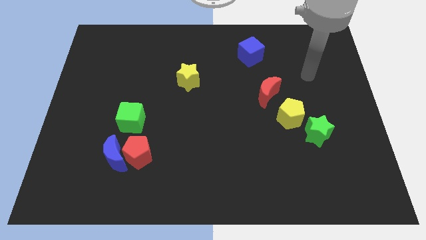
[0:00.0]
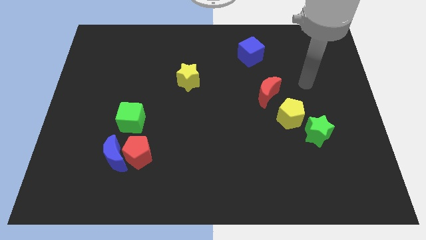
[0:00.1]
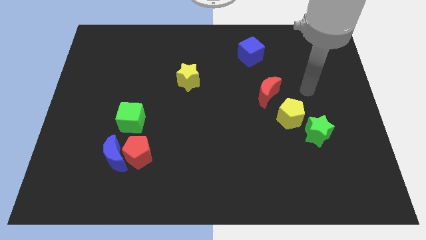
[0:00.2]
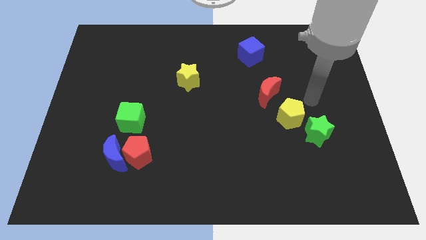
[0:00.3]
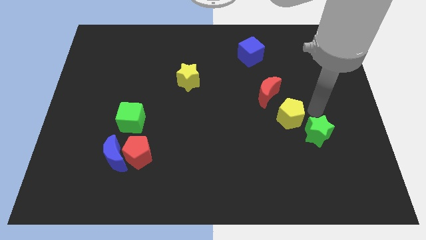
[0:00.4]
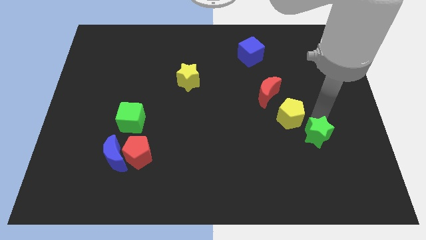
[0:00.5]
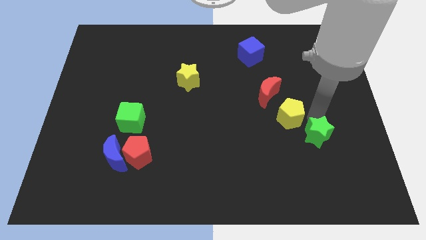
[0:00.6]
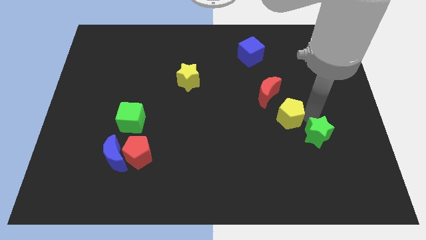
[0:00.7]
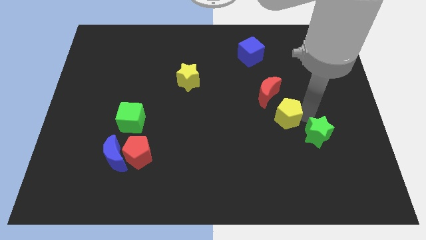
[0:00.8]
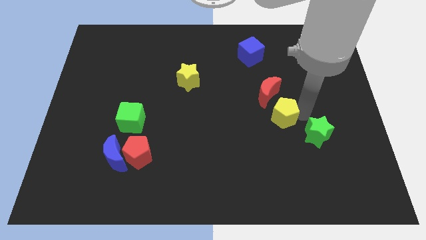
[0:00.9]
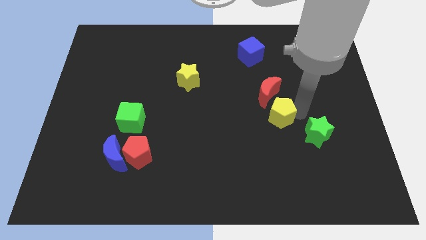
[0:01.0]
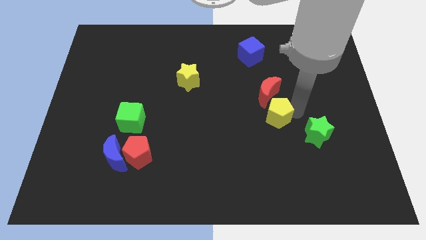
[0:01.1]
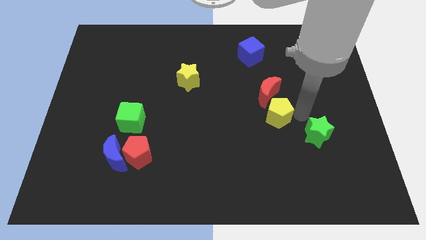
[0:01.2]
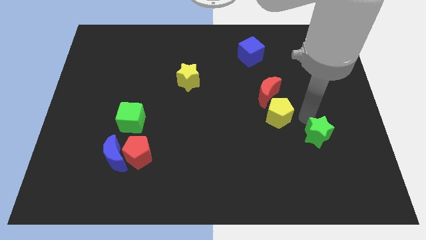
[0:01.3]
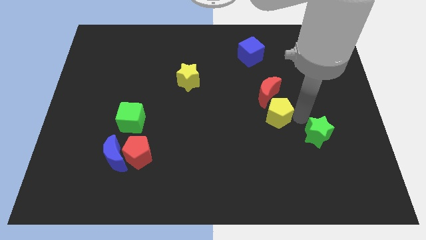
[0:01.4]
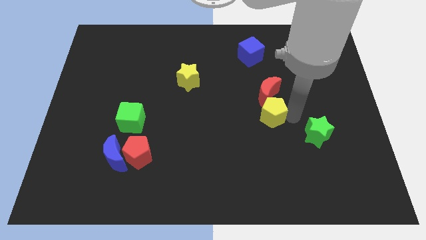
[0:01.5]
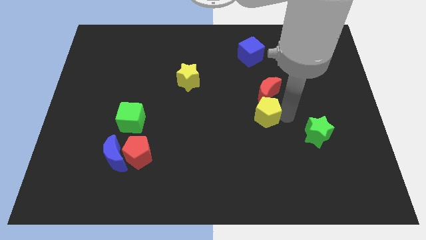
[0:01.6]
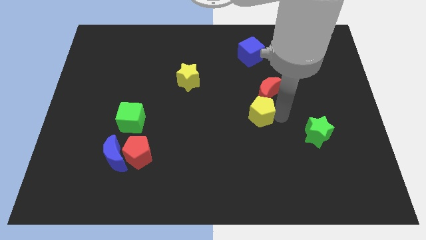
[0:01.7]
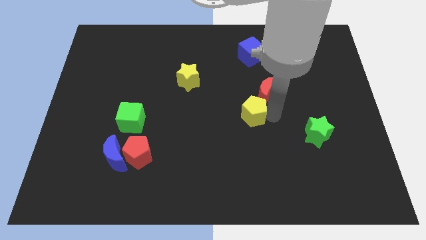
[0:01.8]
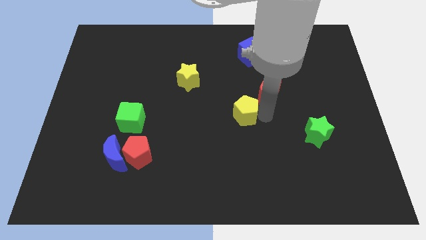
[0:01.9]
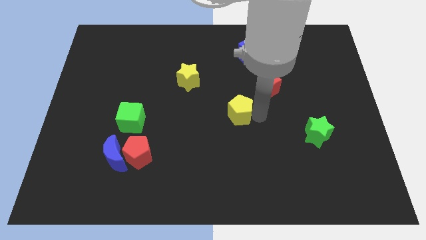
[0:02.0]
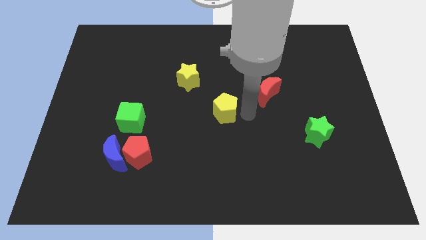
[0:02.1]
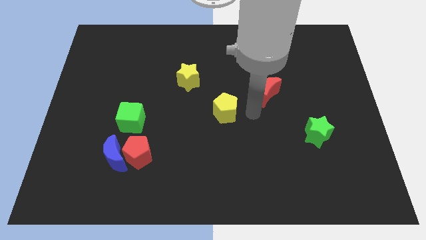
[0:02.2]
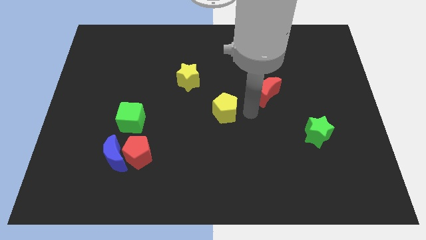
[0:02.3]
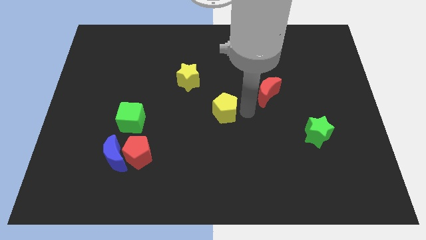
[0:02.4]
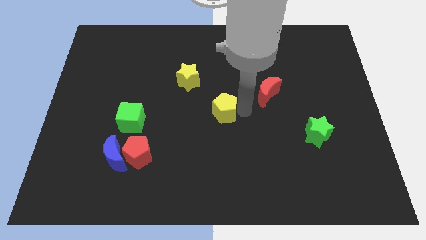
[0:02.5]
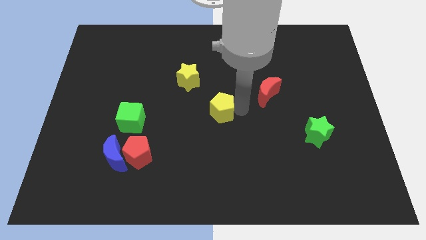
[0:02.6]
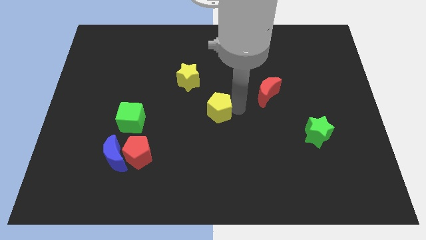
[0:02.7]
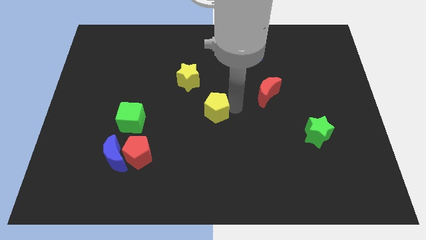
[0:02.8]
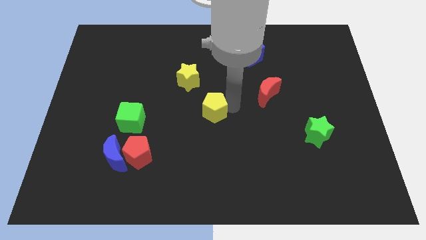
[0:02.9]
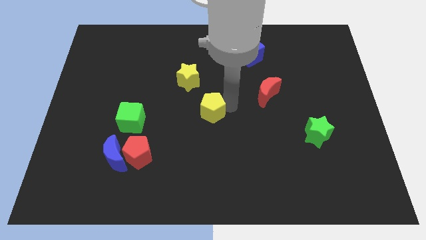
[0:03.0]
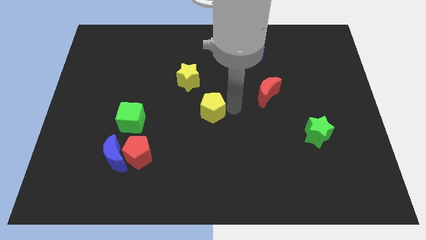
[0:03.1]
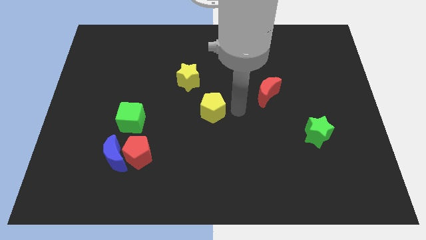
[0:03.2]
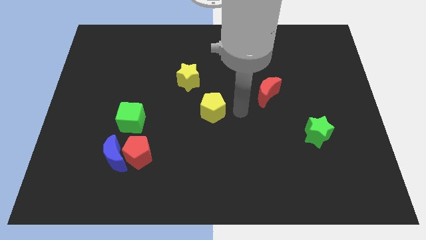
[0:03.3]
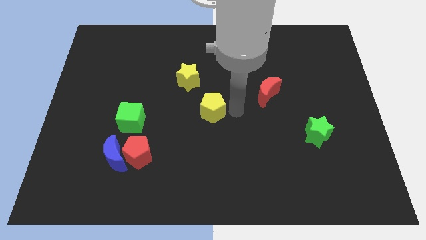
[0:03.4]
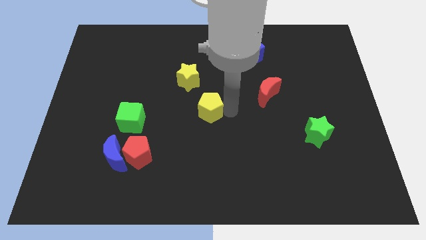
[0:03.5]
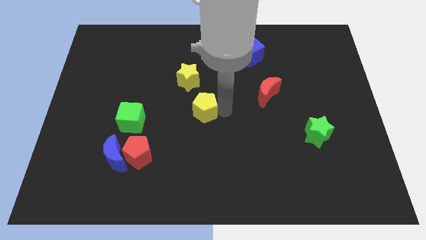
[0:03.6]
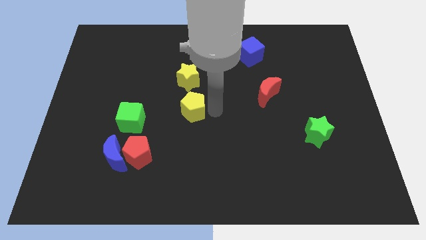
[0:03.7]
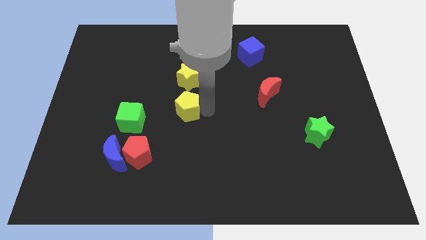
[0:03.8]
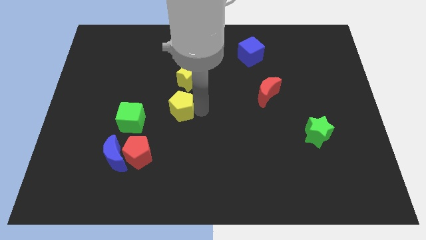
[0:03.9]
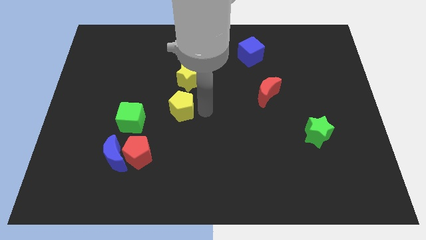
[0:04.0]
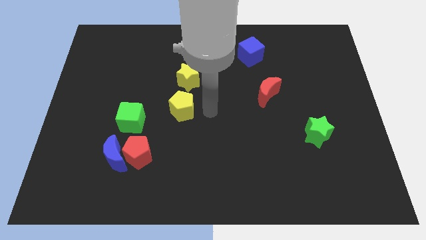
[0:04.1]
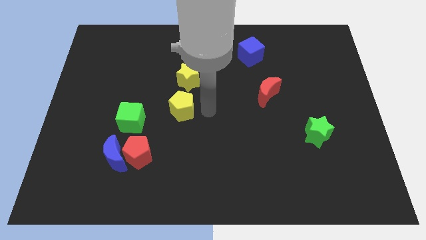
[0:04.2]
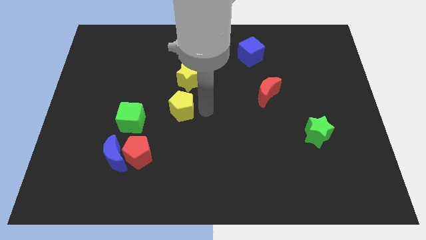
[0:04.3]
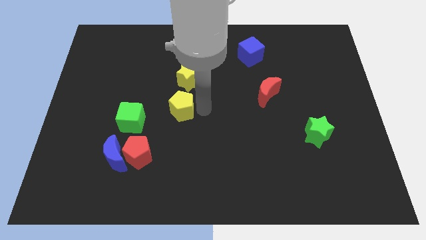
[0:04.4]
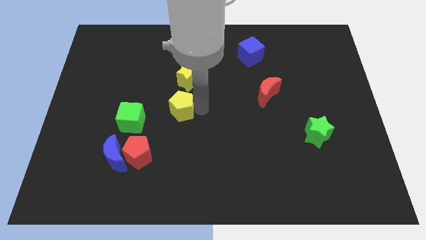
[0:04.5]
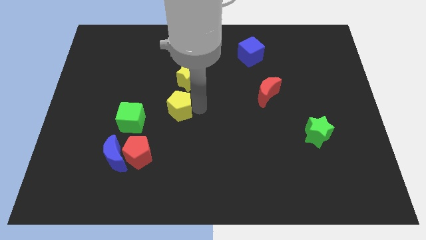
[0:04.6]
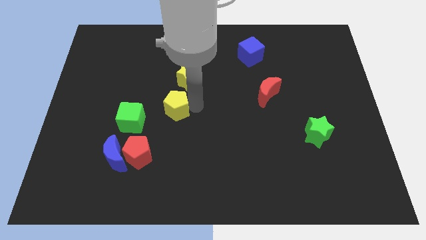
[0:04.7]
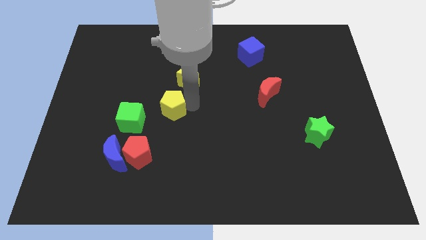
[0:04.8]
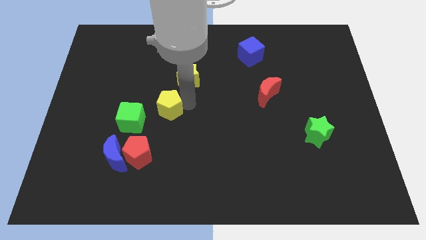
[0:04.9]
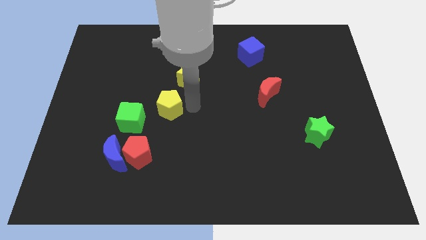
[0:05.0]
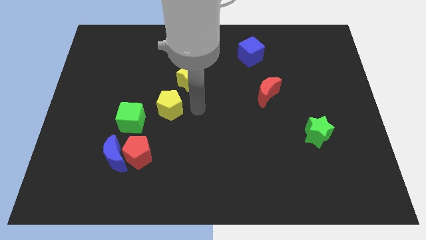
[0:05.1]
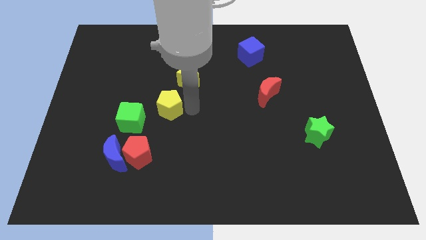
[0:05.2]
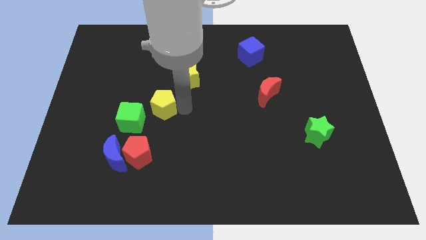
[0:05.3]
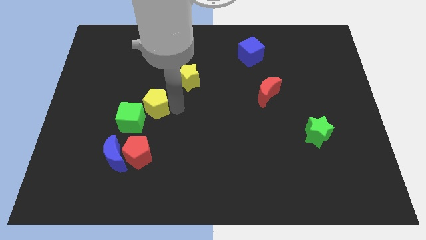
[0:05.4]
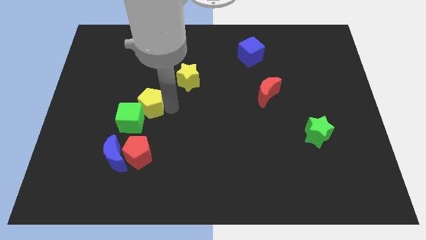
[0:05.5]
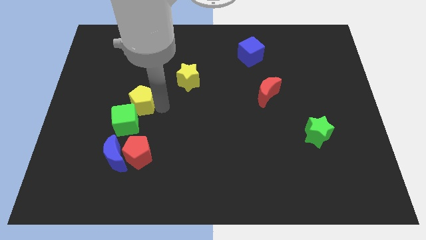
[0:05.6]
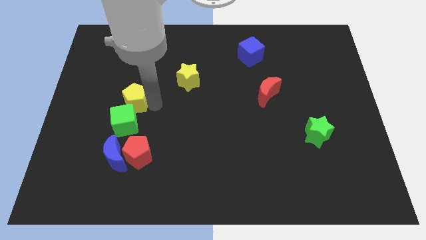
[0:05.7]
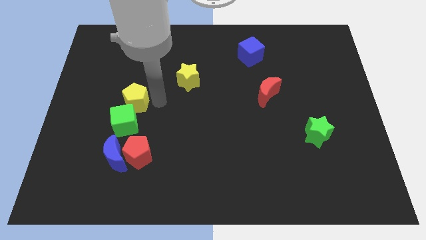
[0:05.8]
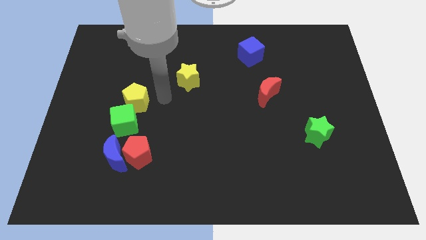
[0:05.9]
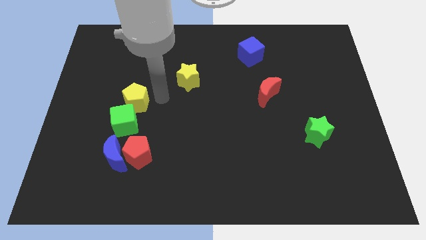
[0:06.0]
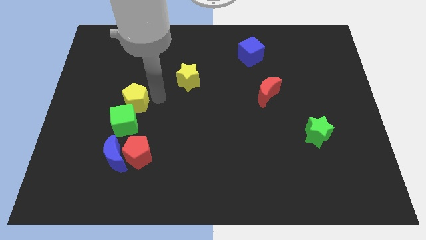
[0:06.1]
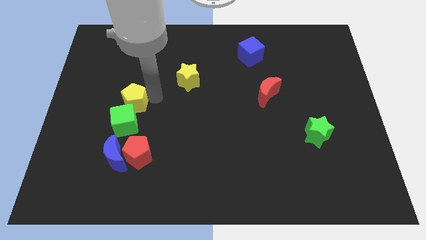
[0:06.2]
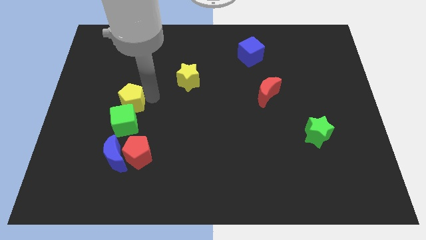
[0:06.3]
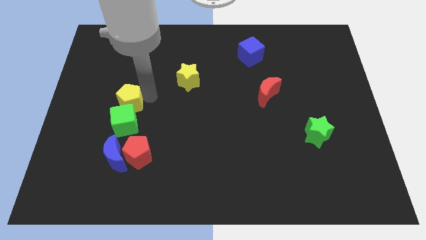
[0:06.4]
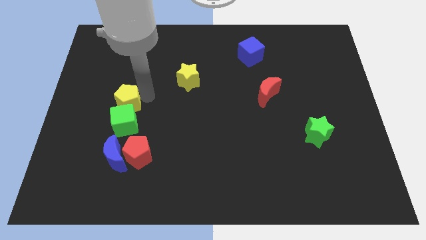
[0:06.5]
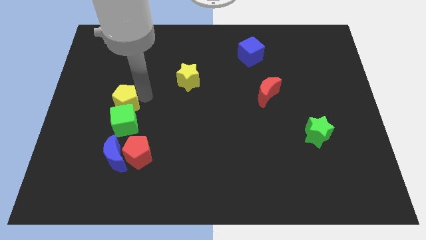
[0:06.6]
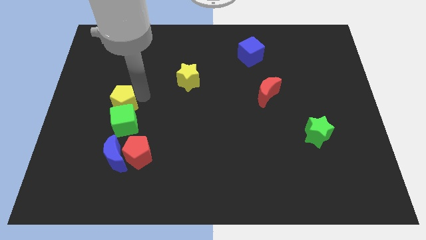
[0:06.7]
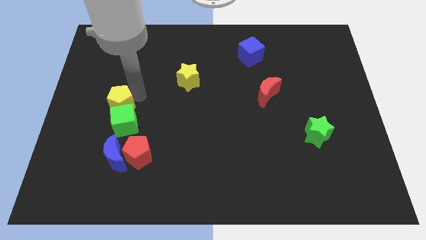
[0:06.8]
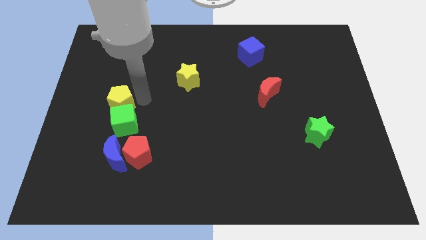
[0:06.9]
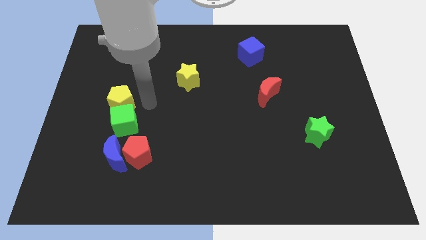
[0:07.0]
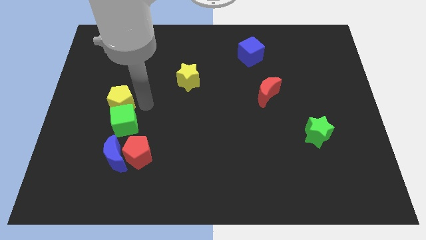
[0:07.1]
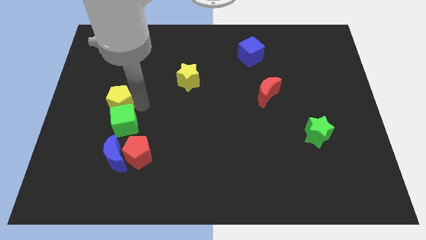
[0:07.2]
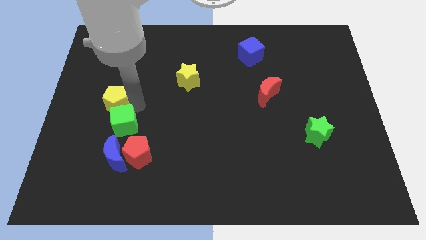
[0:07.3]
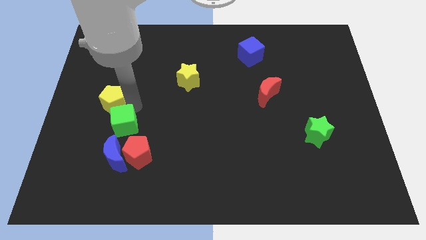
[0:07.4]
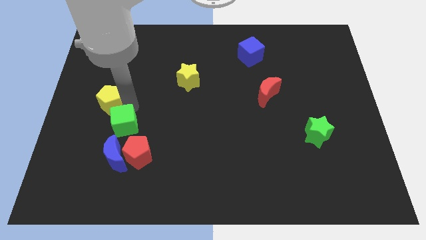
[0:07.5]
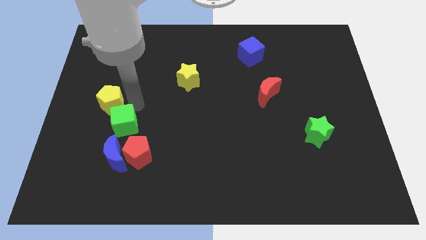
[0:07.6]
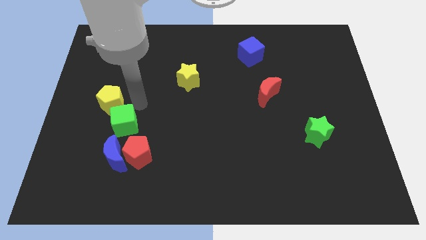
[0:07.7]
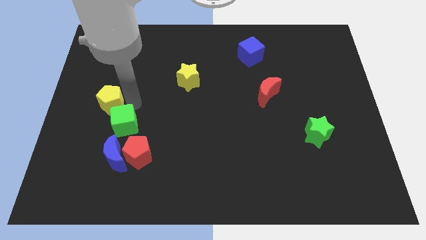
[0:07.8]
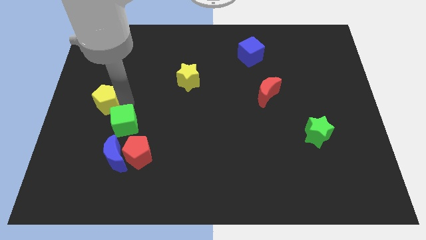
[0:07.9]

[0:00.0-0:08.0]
slide the yellow pentagon to the left side
